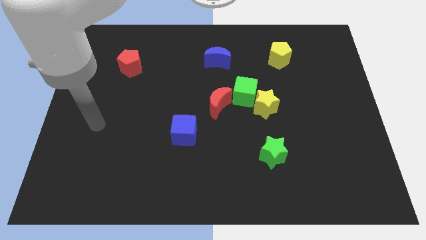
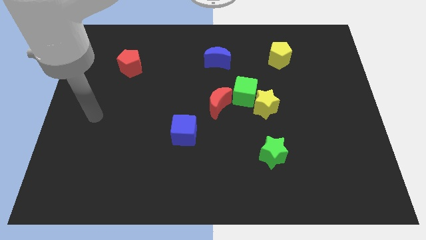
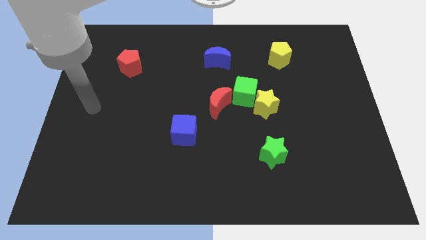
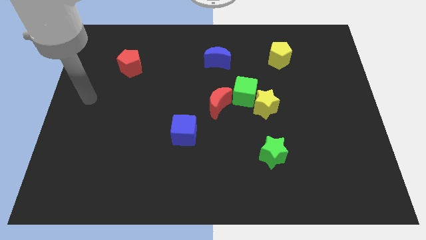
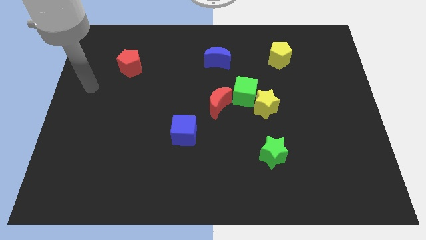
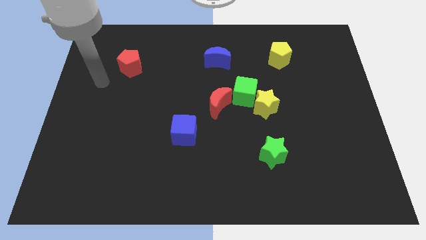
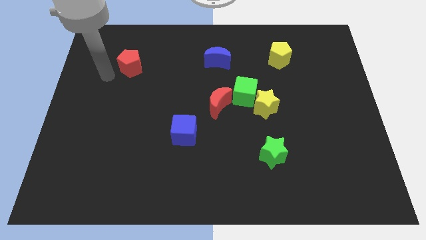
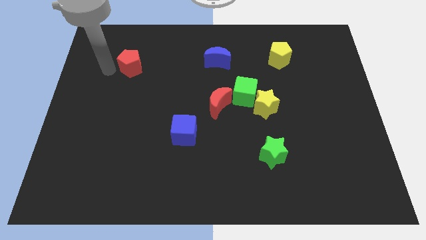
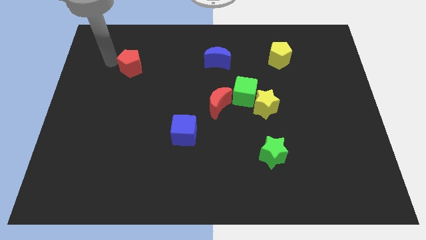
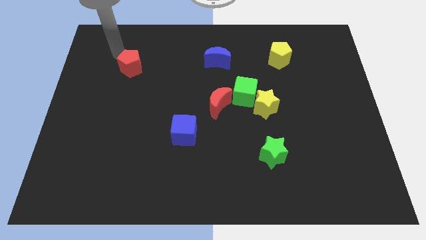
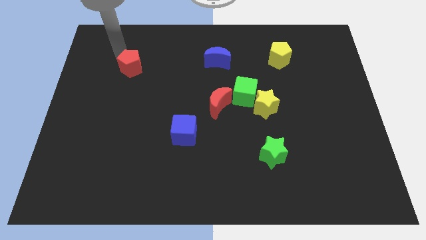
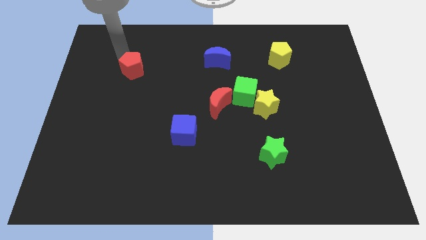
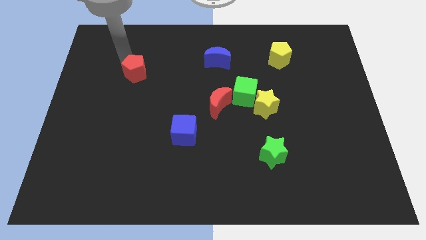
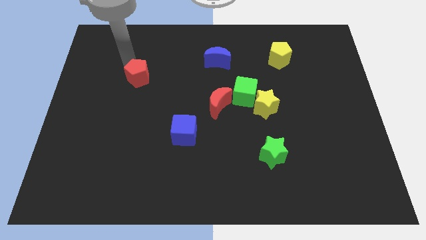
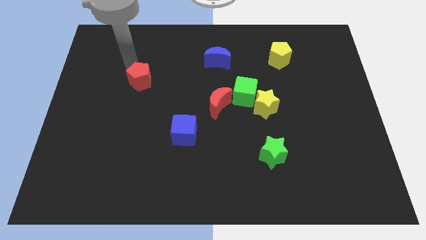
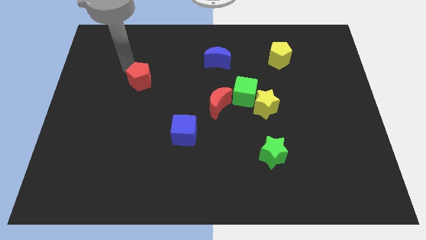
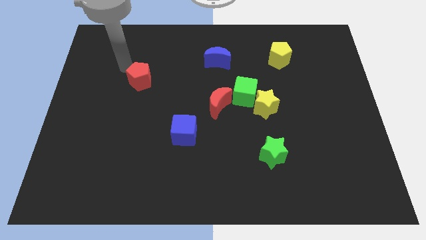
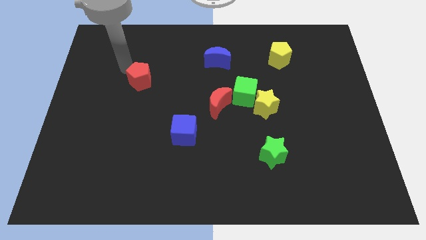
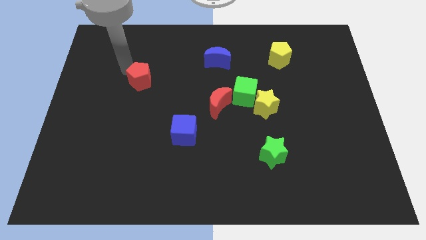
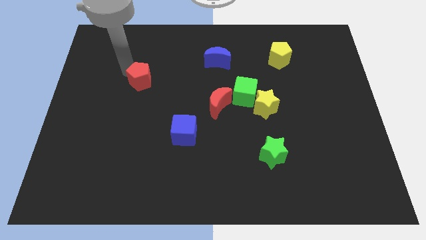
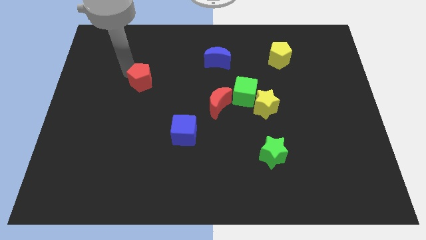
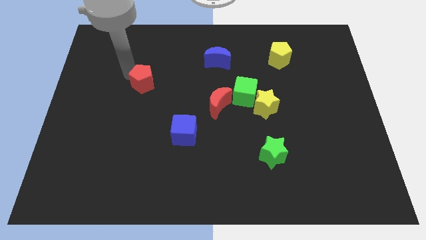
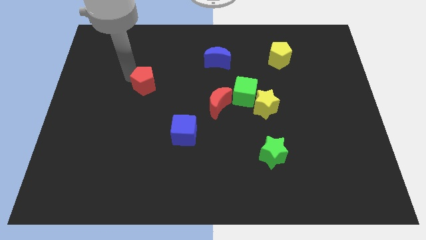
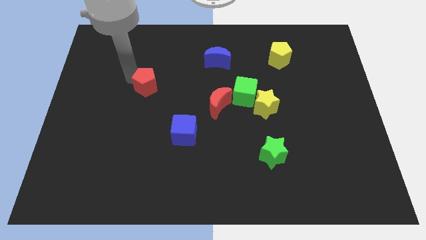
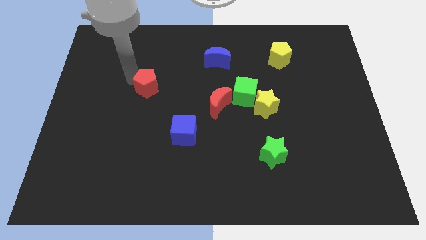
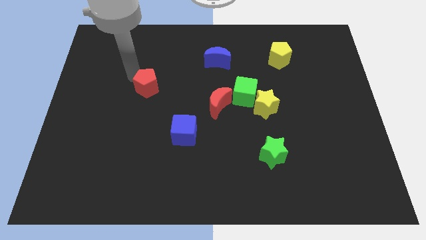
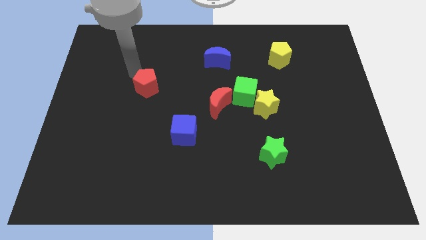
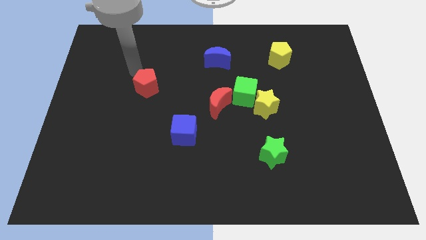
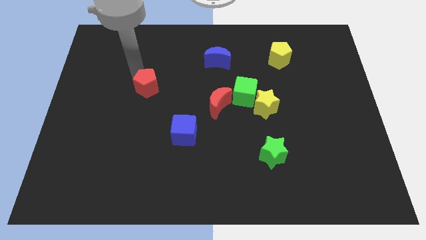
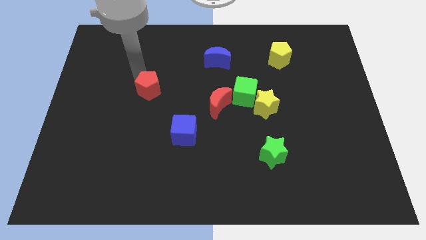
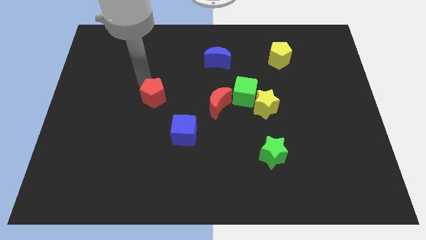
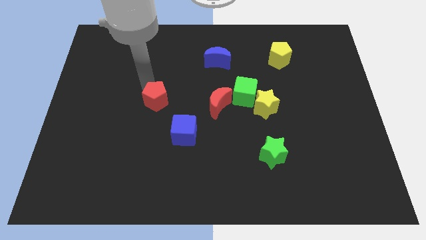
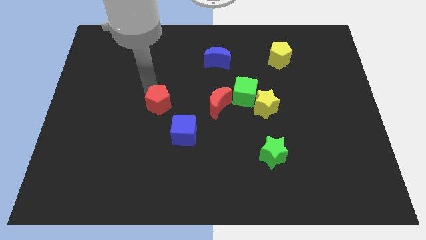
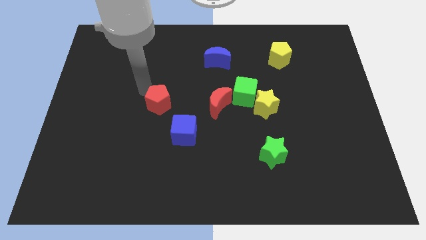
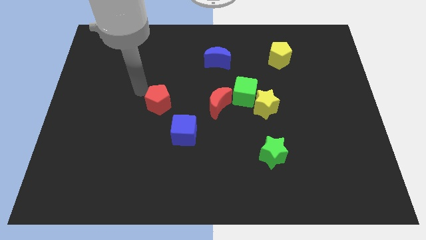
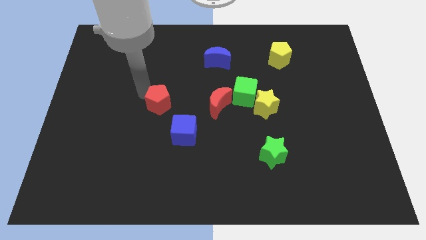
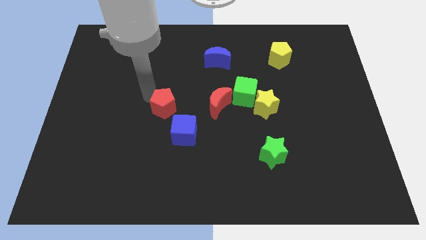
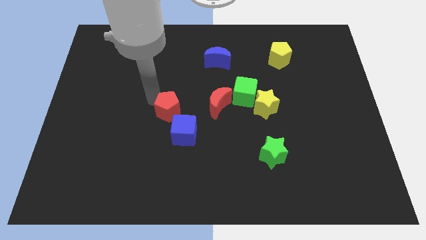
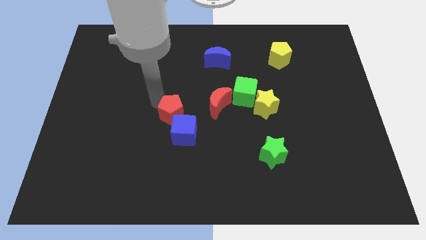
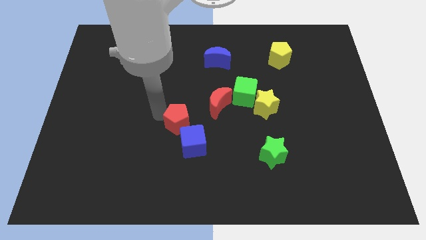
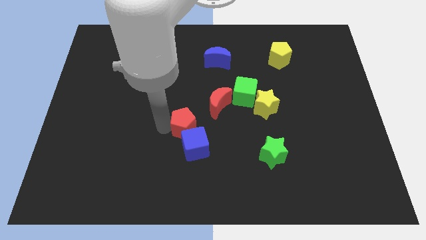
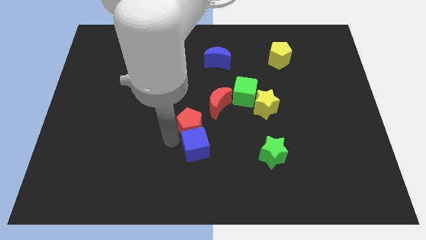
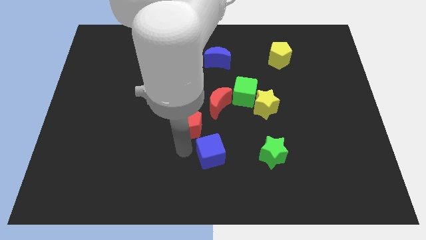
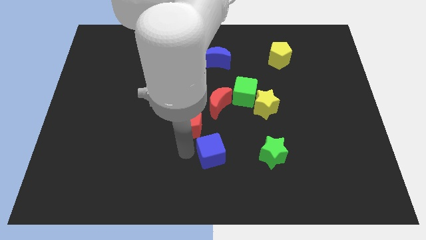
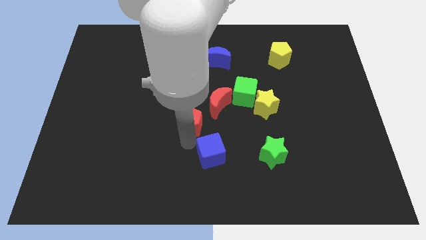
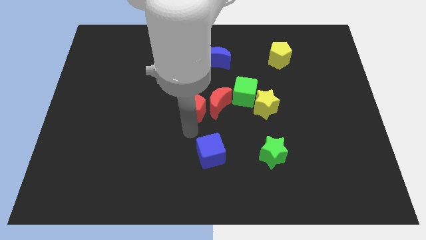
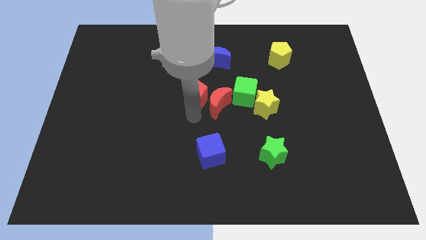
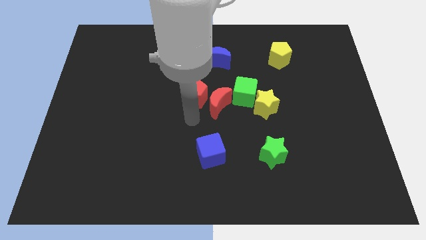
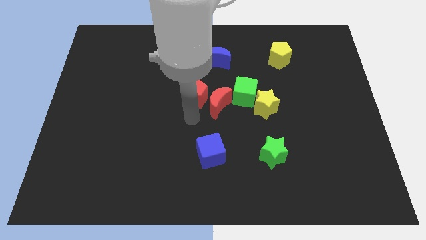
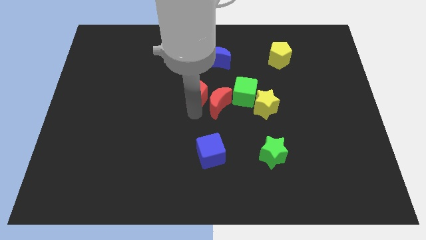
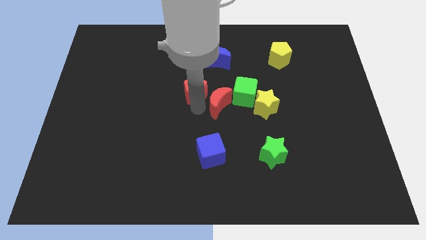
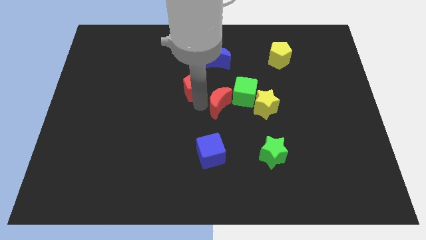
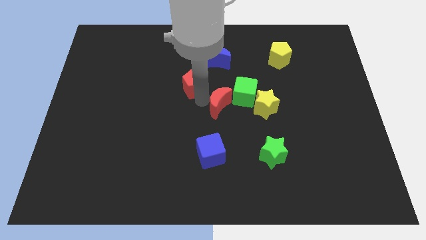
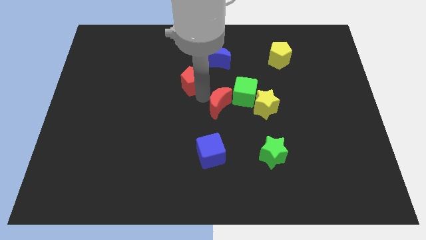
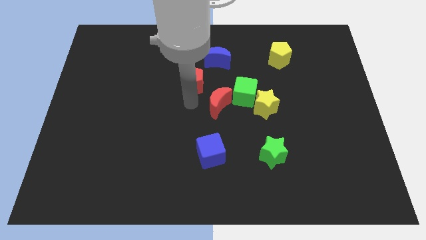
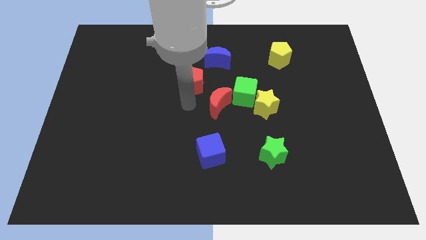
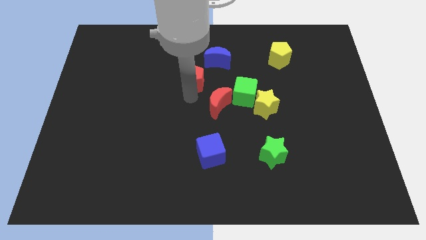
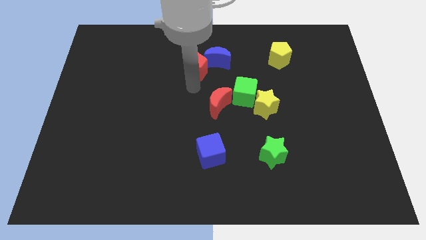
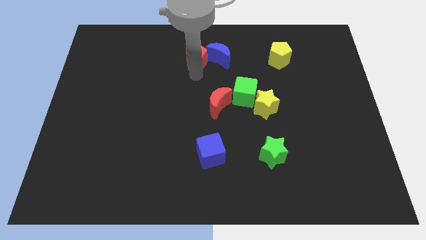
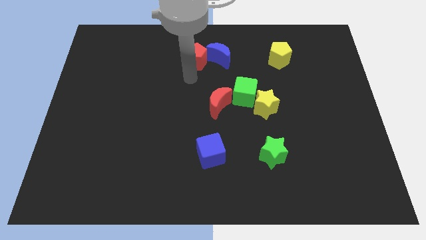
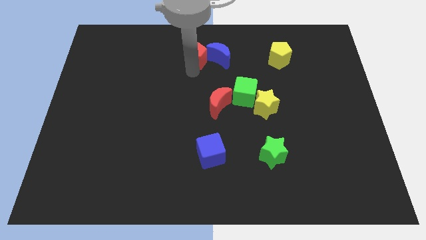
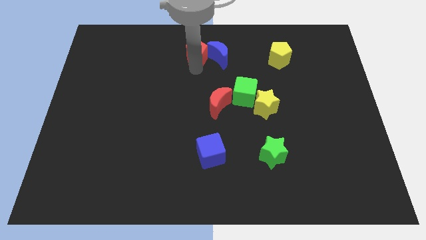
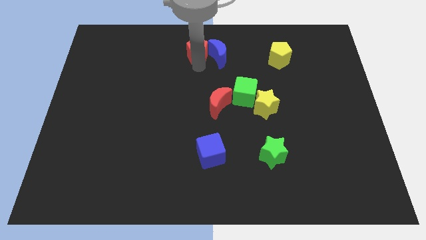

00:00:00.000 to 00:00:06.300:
move the red pentagon to the towards your base

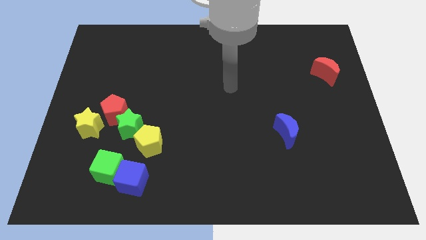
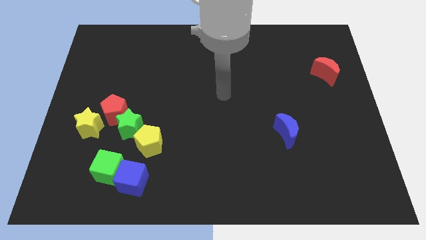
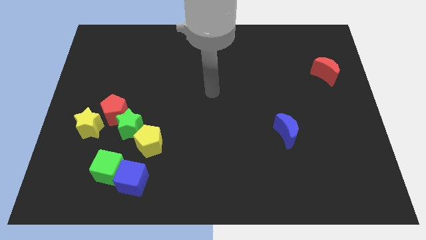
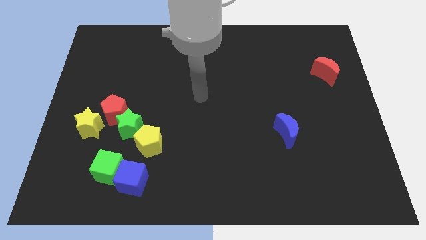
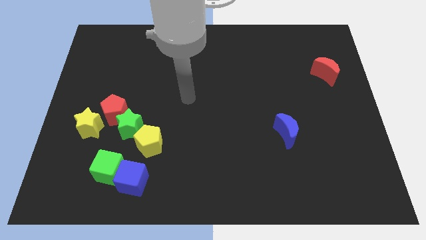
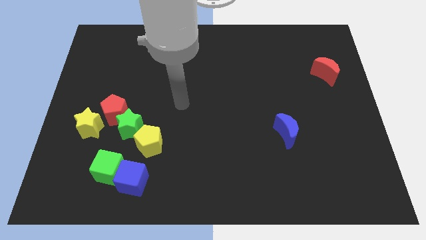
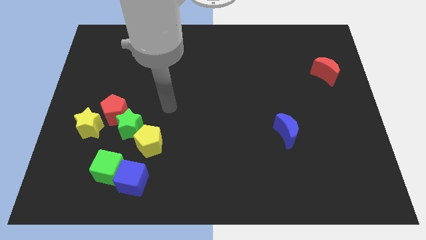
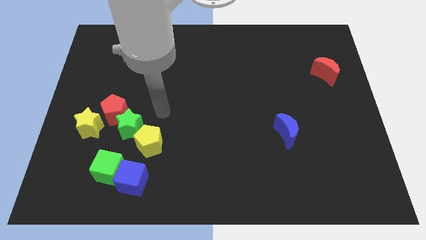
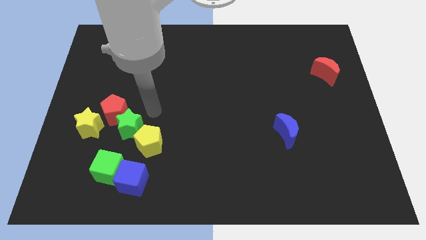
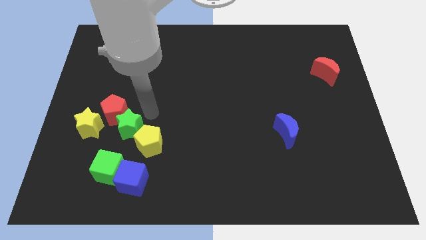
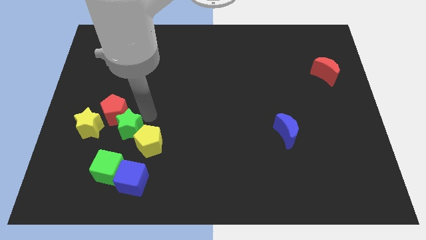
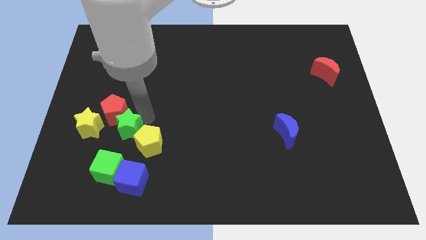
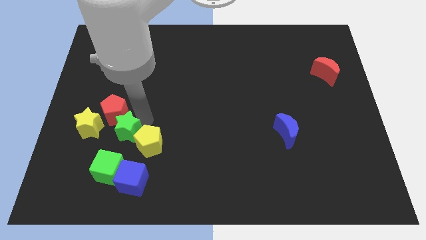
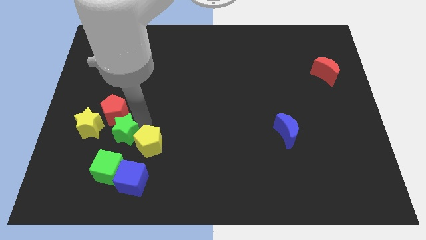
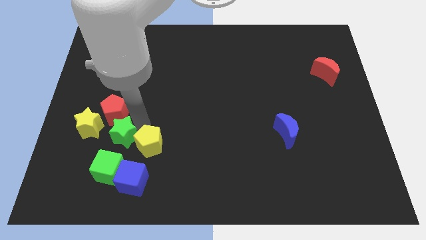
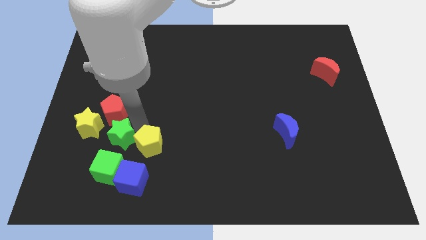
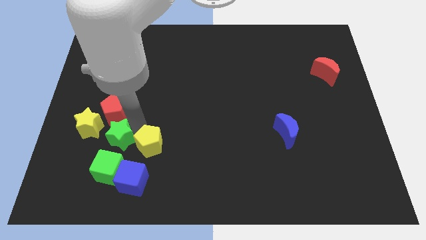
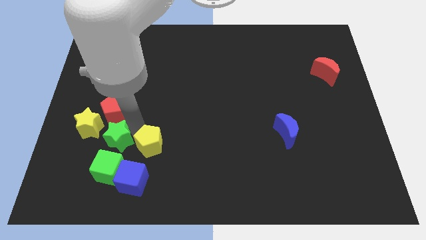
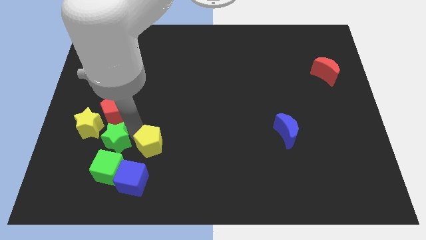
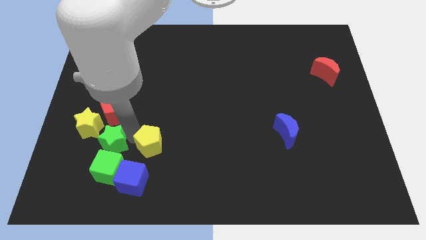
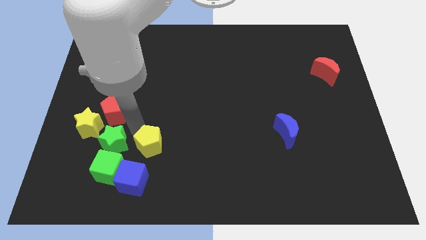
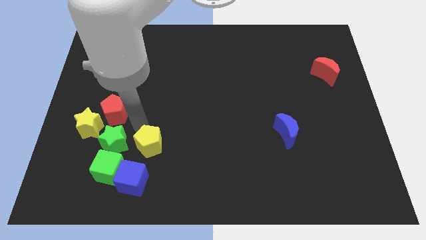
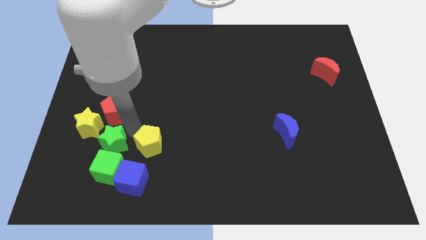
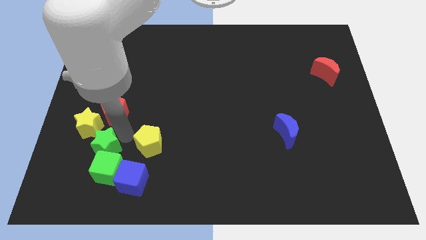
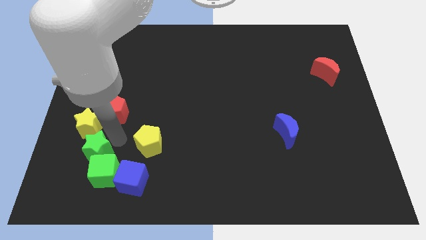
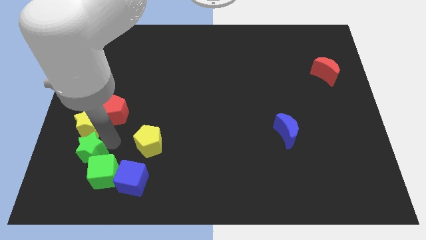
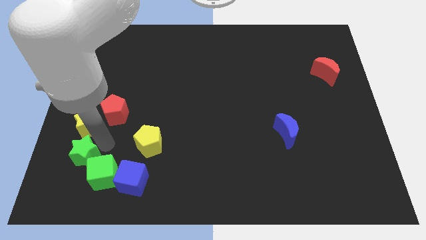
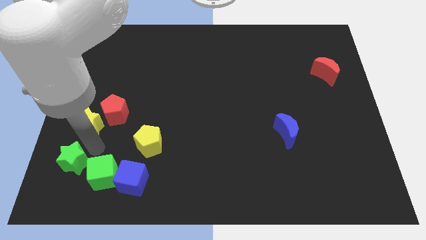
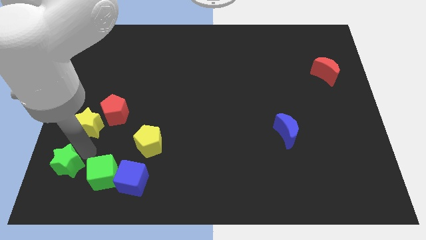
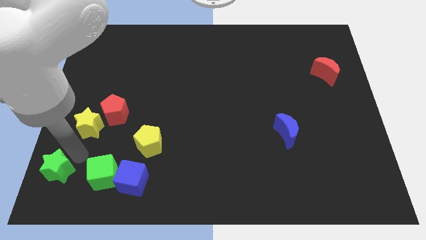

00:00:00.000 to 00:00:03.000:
slide the green star to the bottom left corner
